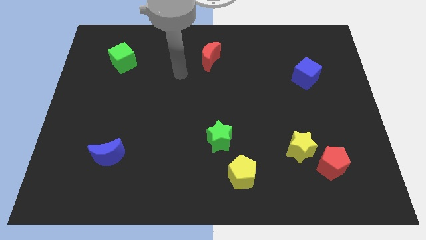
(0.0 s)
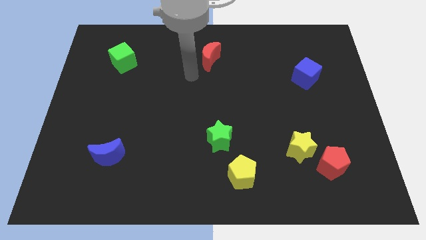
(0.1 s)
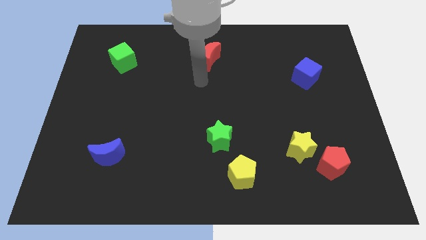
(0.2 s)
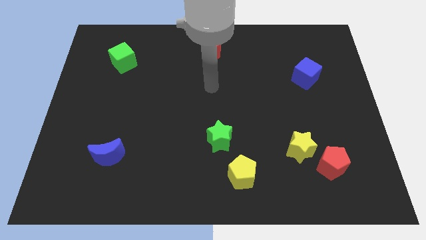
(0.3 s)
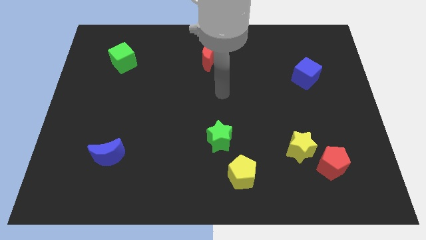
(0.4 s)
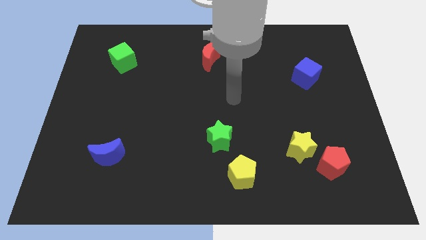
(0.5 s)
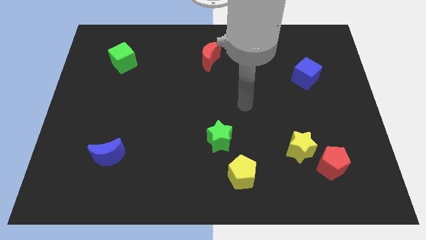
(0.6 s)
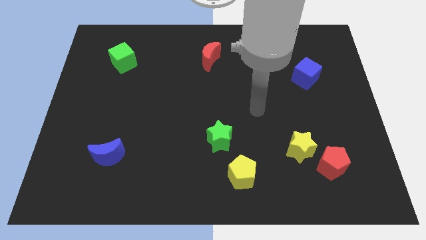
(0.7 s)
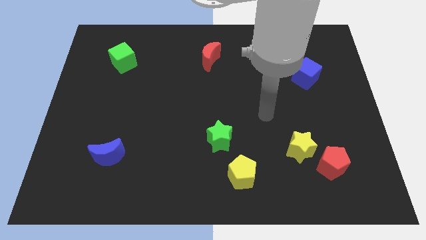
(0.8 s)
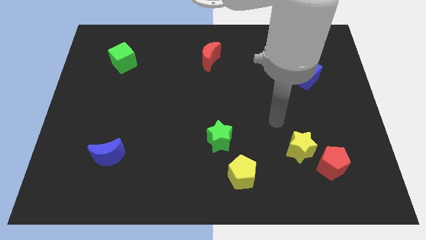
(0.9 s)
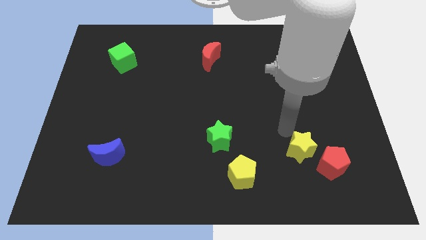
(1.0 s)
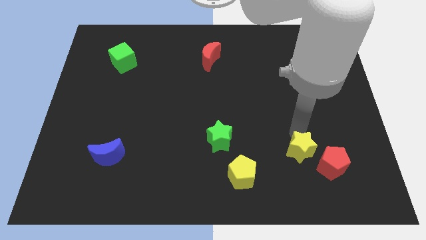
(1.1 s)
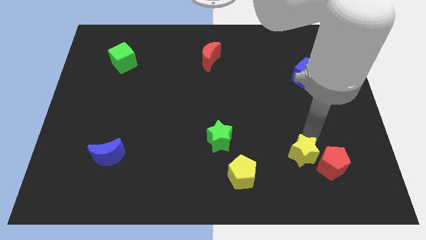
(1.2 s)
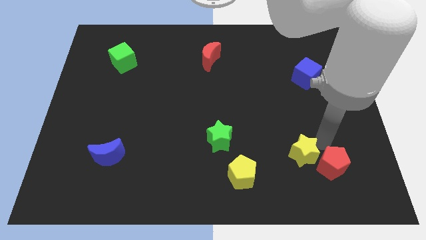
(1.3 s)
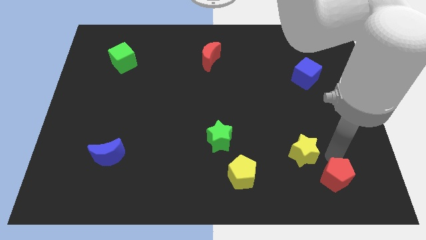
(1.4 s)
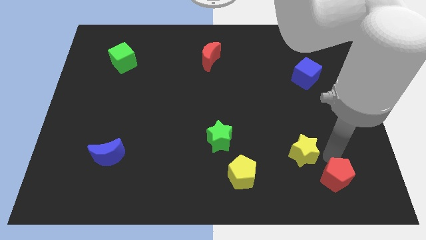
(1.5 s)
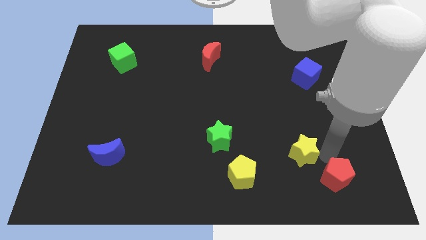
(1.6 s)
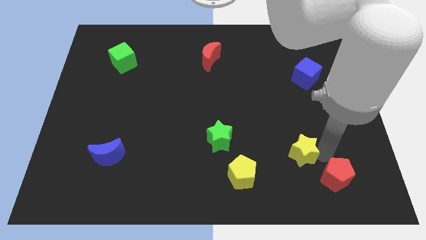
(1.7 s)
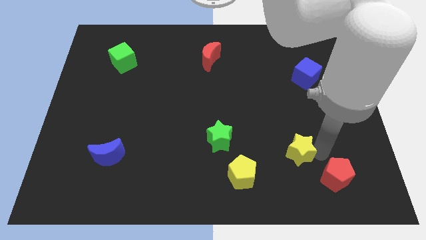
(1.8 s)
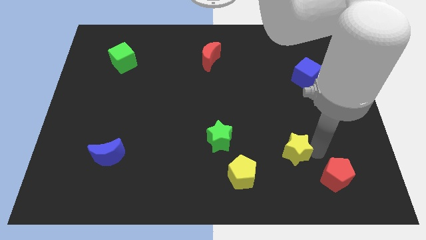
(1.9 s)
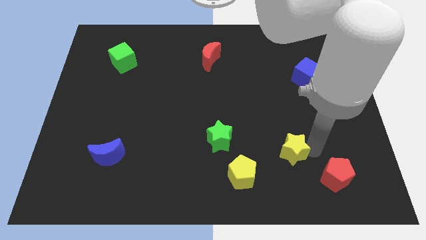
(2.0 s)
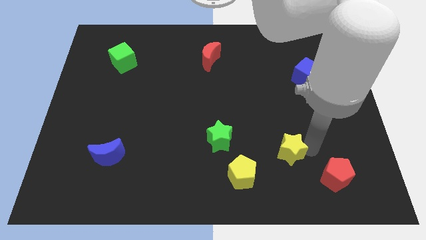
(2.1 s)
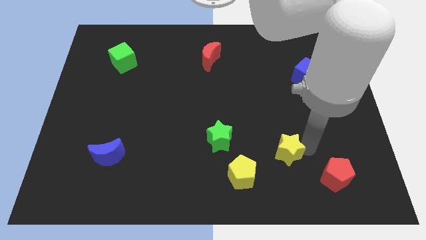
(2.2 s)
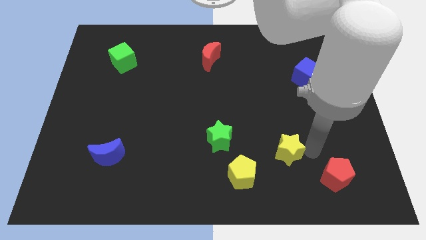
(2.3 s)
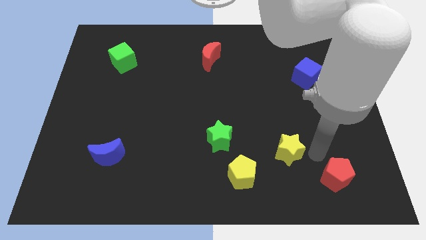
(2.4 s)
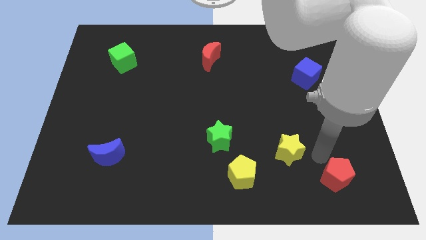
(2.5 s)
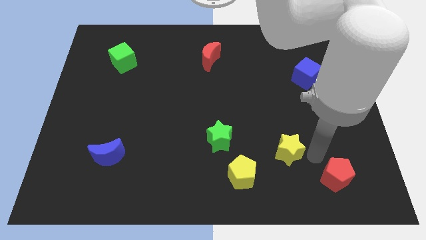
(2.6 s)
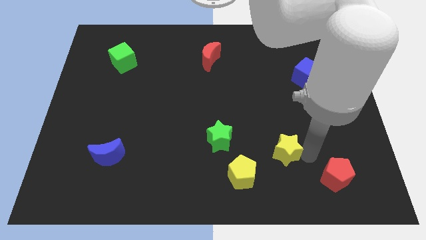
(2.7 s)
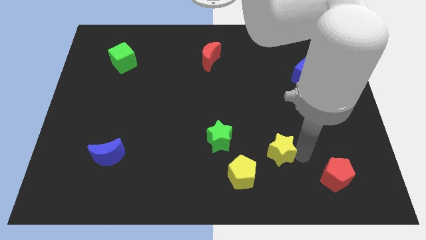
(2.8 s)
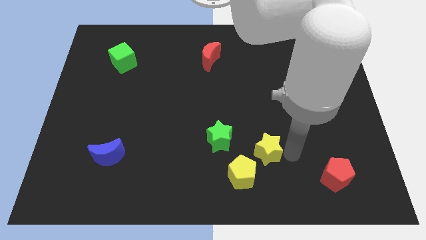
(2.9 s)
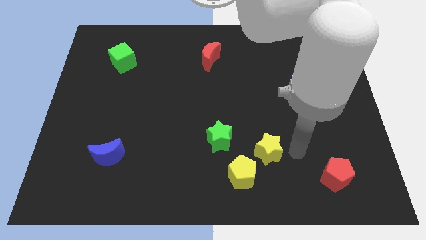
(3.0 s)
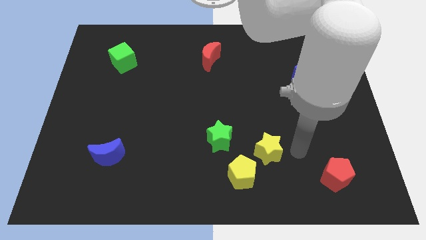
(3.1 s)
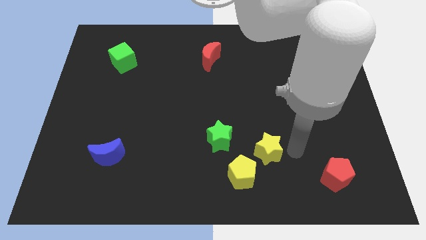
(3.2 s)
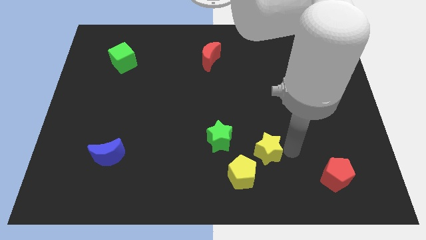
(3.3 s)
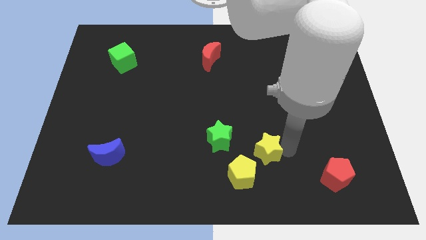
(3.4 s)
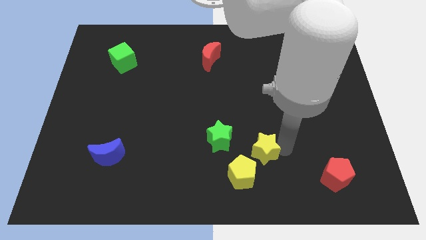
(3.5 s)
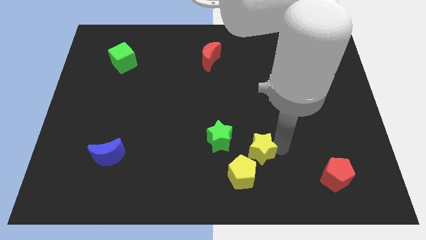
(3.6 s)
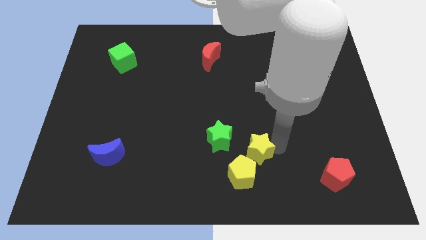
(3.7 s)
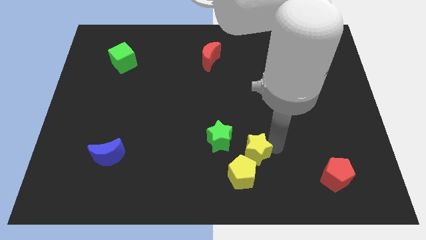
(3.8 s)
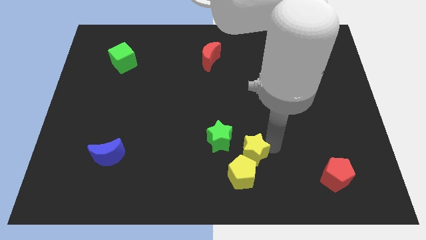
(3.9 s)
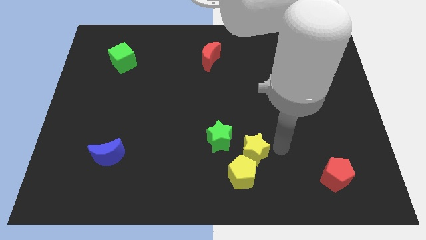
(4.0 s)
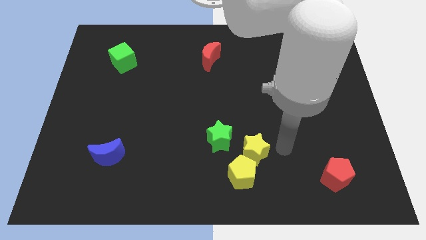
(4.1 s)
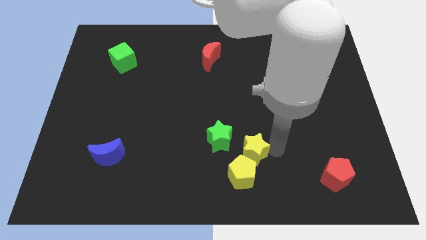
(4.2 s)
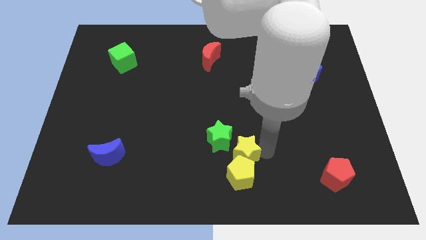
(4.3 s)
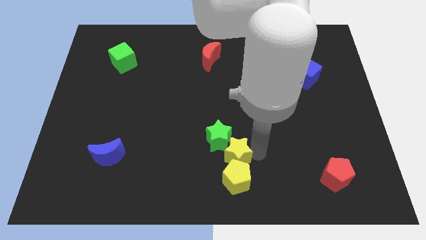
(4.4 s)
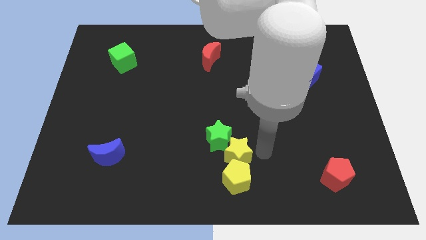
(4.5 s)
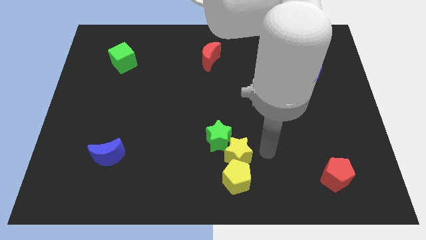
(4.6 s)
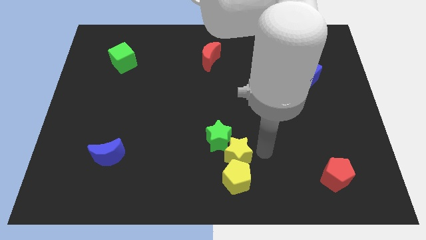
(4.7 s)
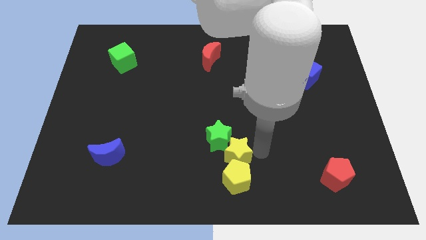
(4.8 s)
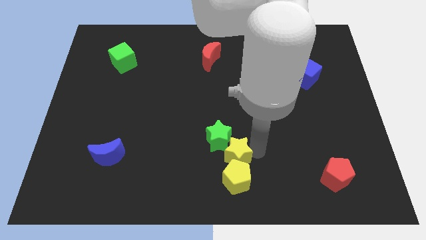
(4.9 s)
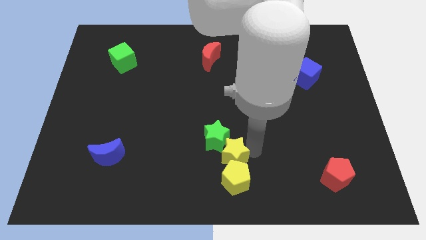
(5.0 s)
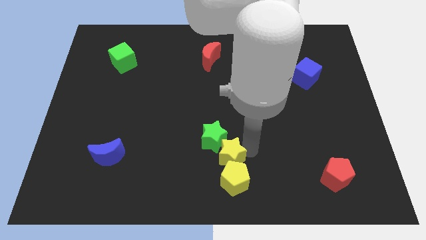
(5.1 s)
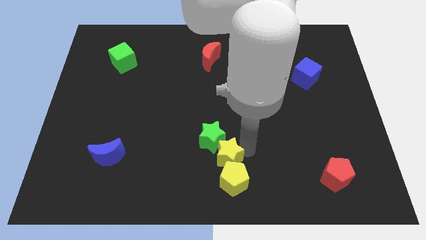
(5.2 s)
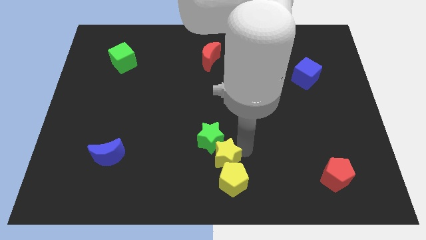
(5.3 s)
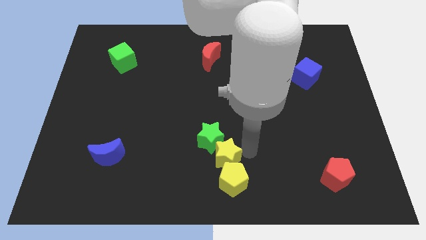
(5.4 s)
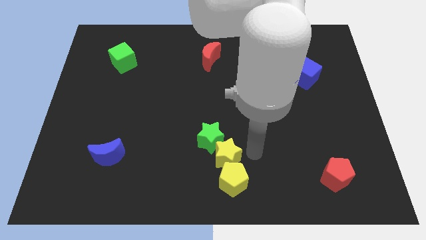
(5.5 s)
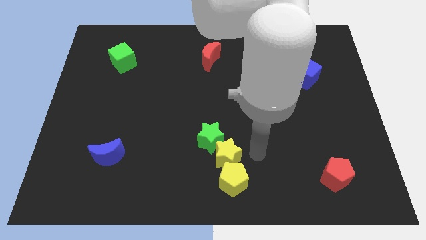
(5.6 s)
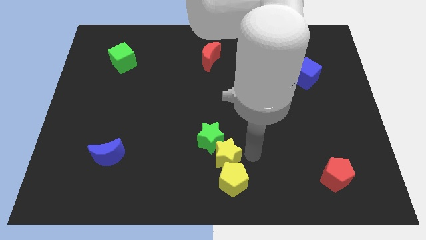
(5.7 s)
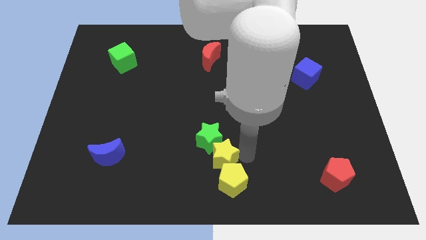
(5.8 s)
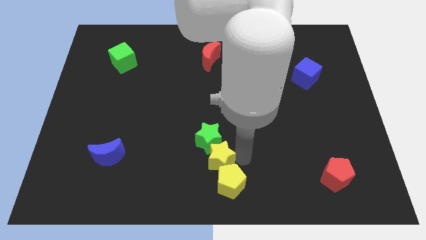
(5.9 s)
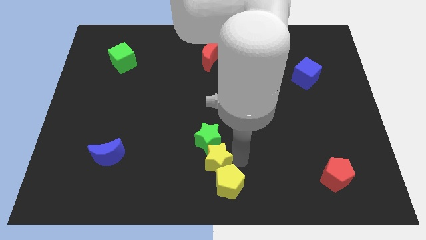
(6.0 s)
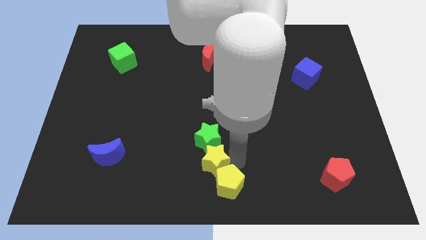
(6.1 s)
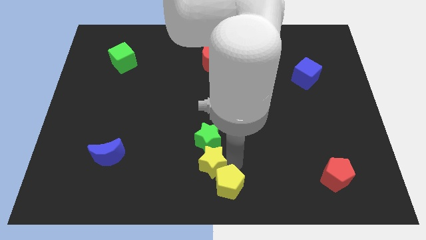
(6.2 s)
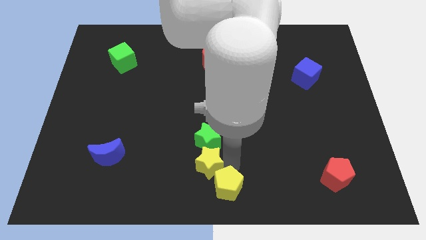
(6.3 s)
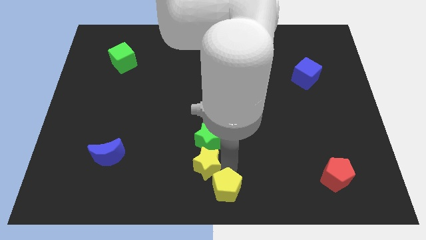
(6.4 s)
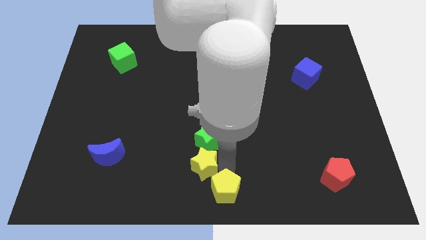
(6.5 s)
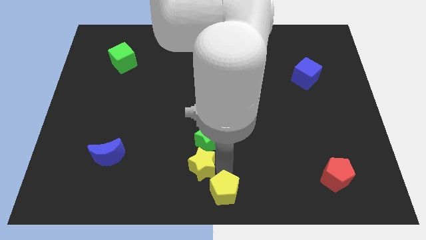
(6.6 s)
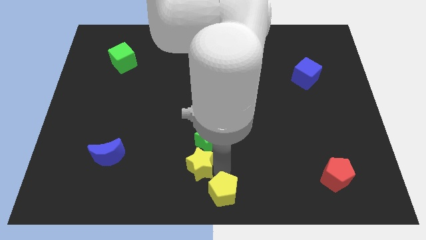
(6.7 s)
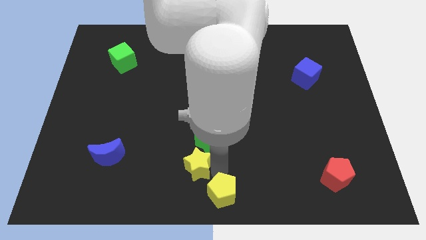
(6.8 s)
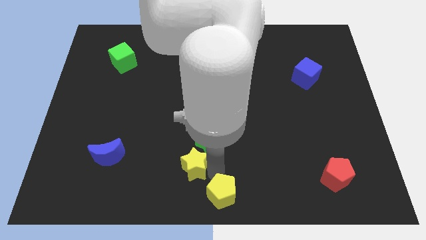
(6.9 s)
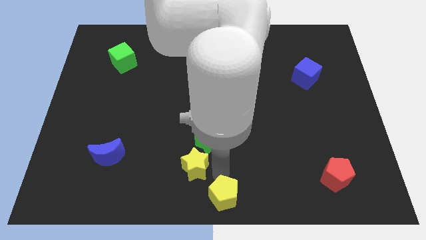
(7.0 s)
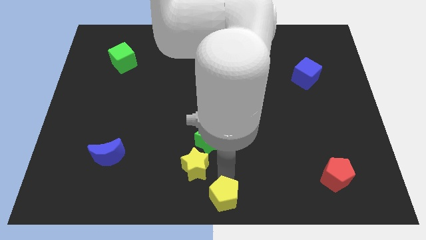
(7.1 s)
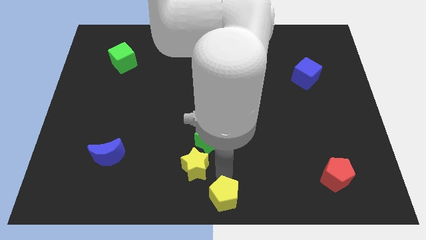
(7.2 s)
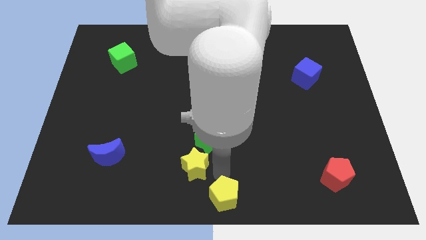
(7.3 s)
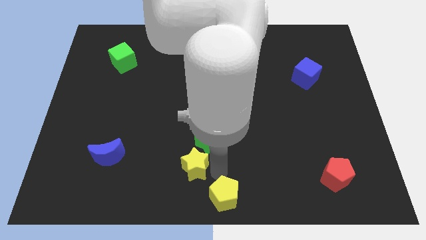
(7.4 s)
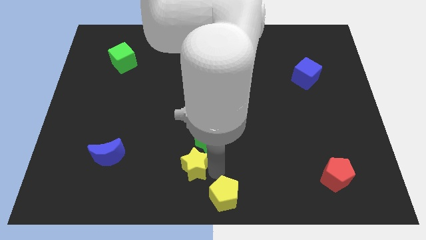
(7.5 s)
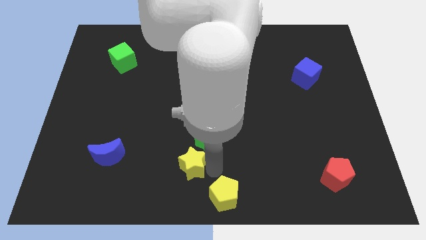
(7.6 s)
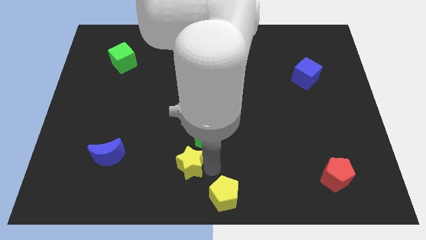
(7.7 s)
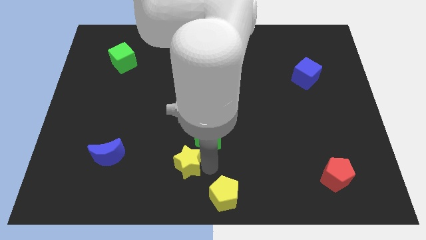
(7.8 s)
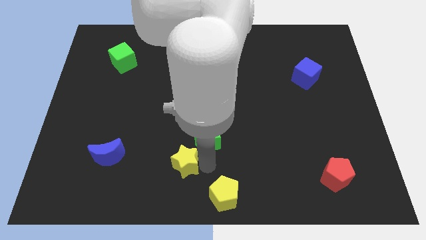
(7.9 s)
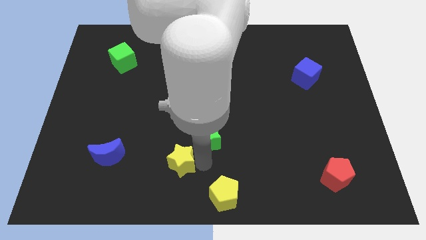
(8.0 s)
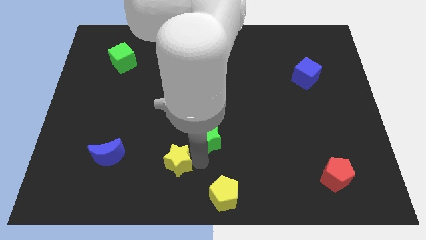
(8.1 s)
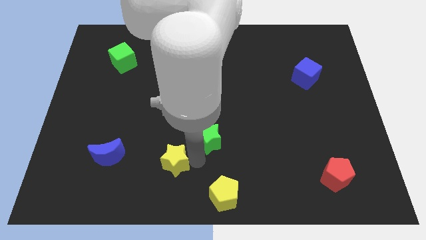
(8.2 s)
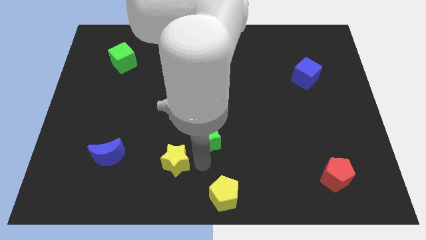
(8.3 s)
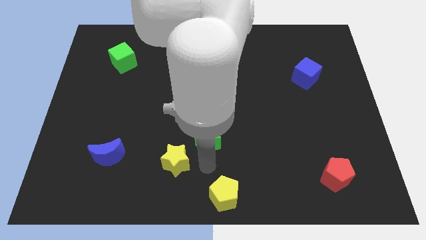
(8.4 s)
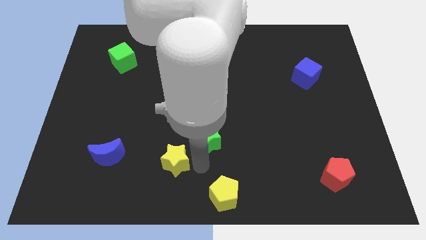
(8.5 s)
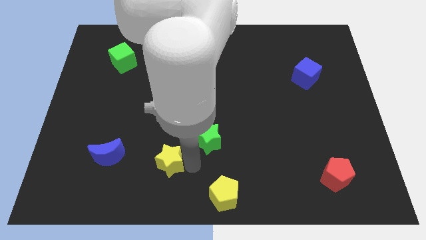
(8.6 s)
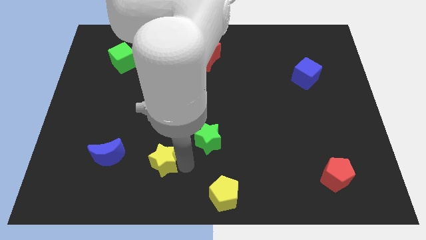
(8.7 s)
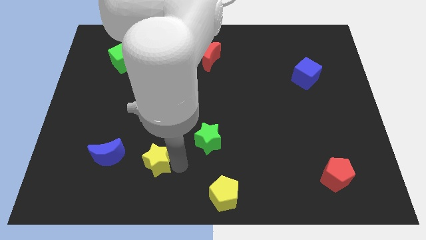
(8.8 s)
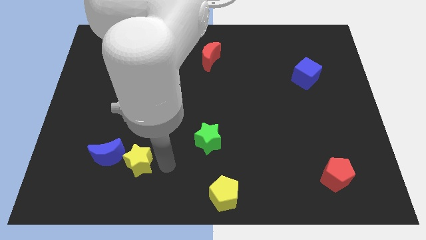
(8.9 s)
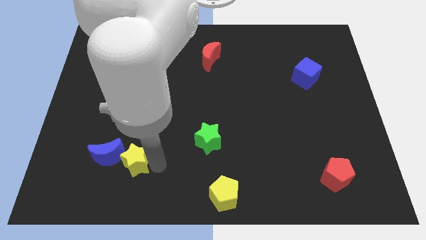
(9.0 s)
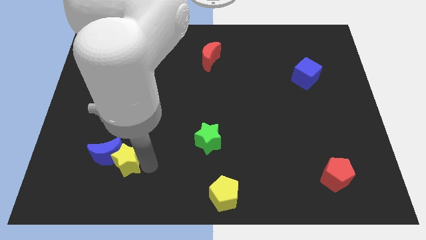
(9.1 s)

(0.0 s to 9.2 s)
put the yellow star to the blue moon
